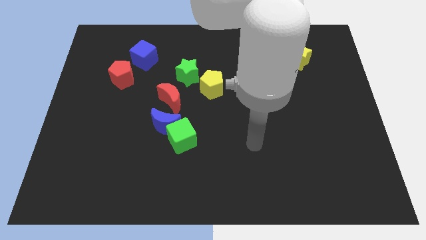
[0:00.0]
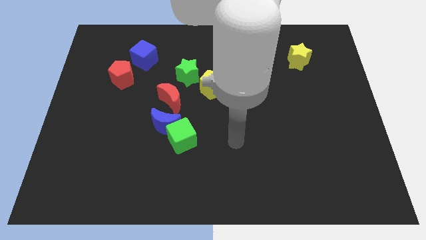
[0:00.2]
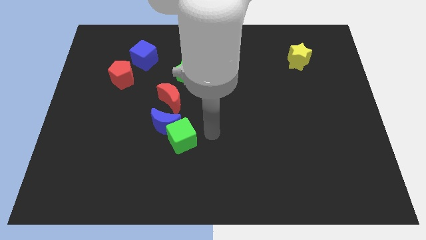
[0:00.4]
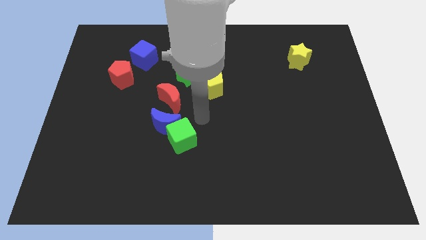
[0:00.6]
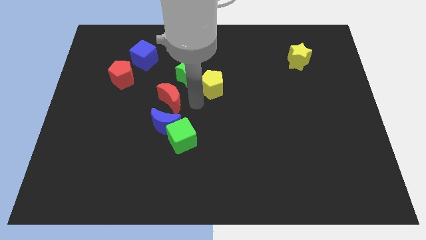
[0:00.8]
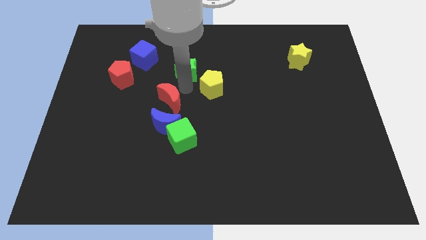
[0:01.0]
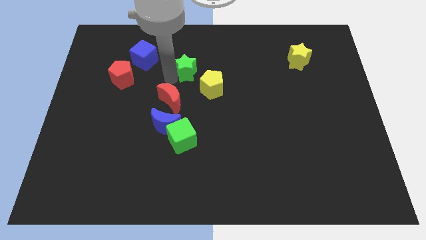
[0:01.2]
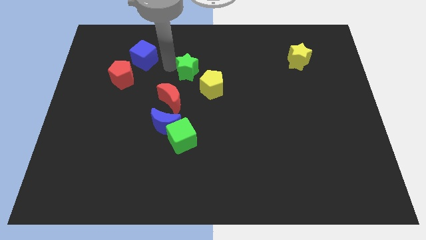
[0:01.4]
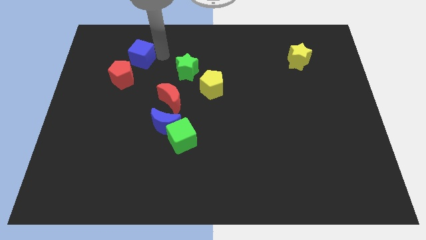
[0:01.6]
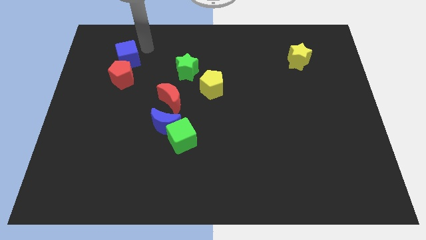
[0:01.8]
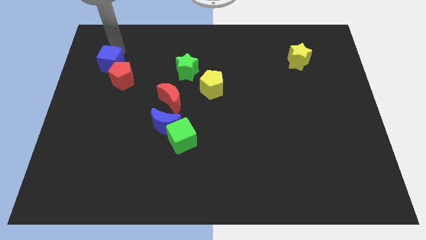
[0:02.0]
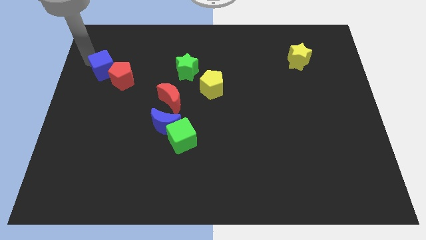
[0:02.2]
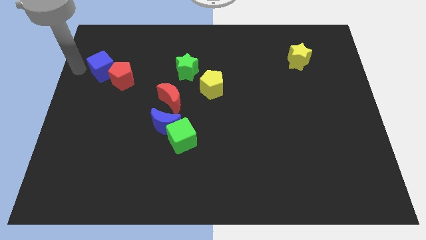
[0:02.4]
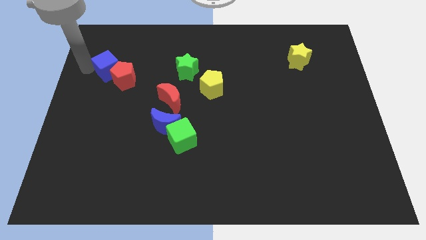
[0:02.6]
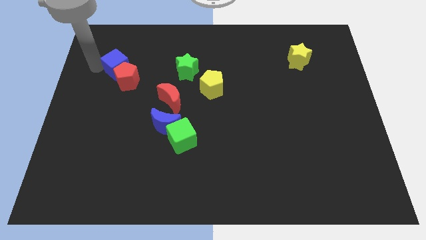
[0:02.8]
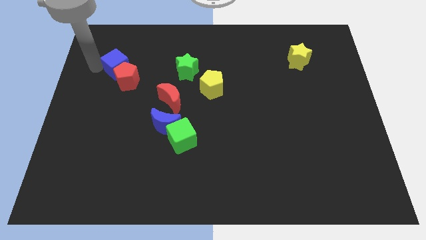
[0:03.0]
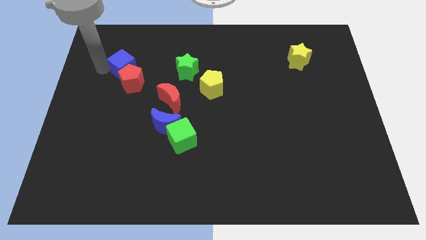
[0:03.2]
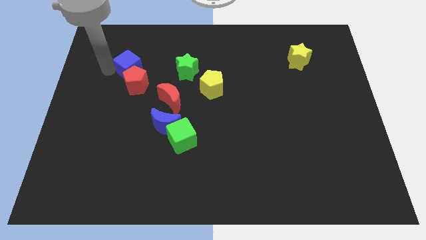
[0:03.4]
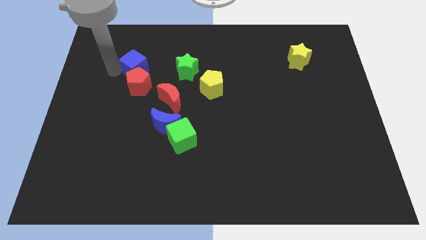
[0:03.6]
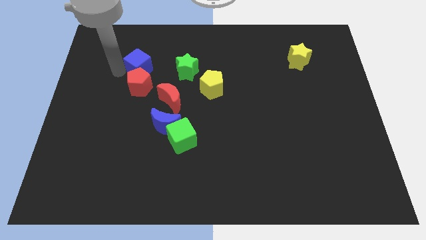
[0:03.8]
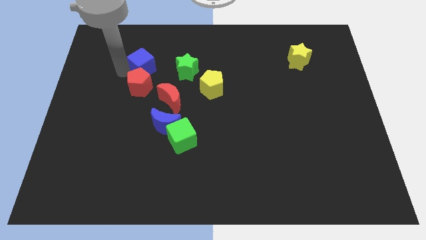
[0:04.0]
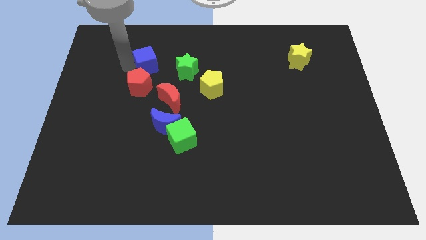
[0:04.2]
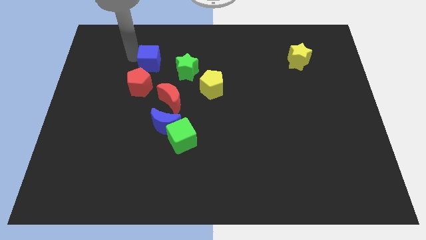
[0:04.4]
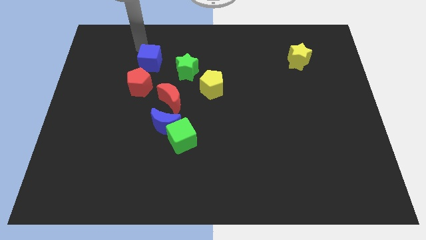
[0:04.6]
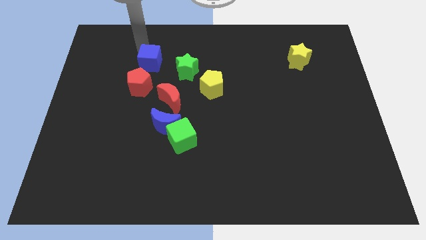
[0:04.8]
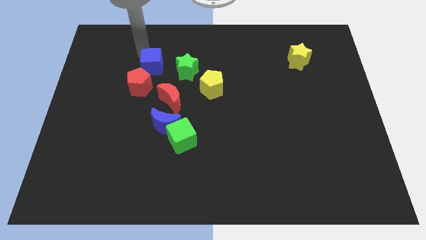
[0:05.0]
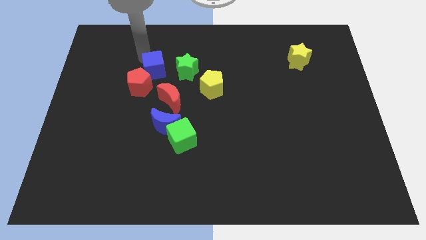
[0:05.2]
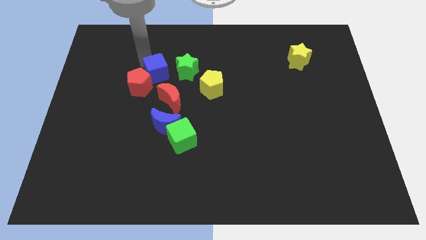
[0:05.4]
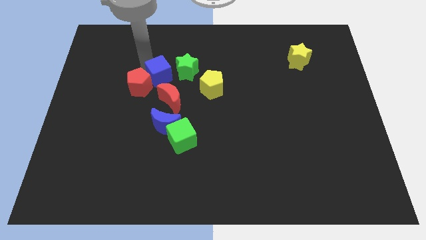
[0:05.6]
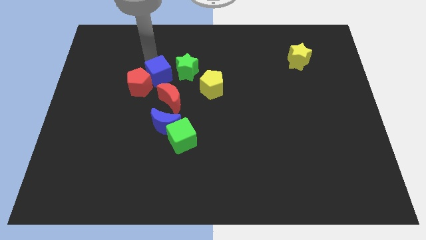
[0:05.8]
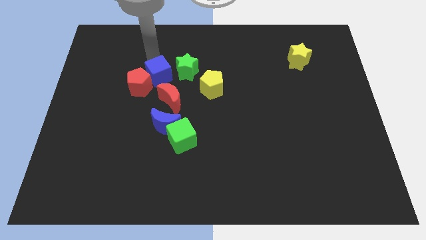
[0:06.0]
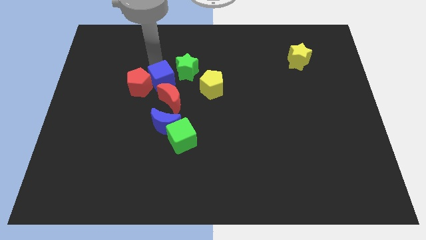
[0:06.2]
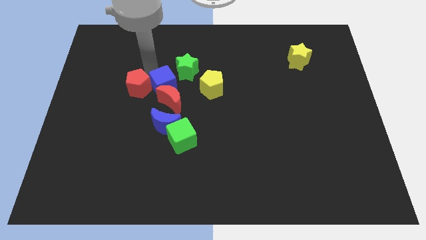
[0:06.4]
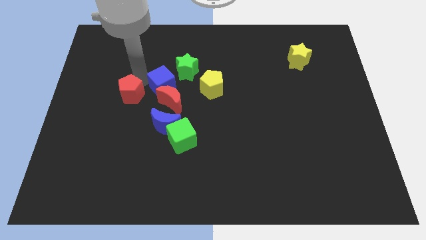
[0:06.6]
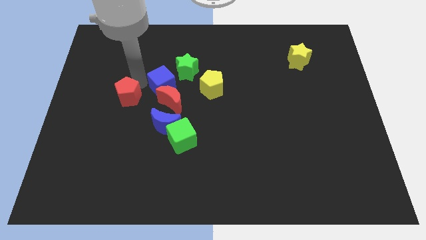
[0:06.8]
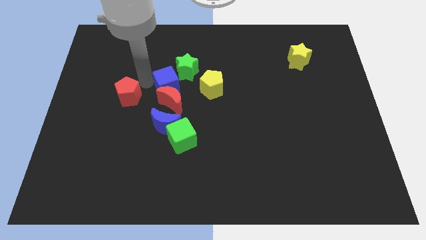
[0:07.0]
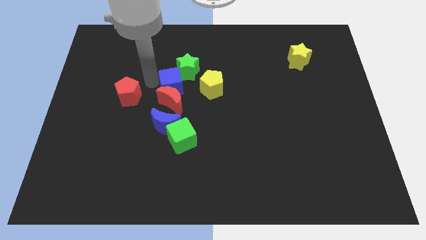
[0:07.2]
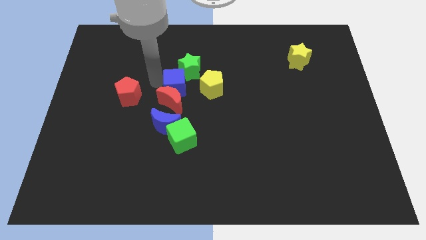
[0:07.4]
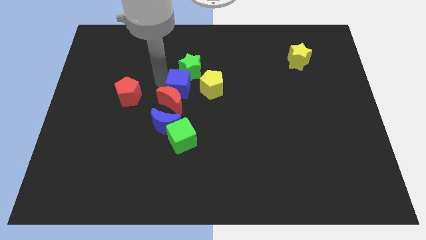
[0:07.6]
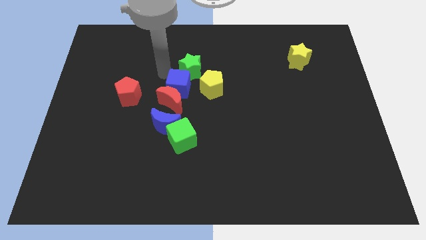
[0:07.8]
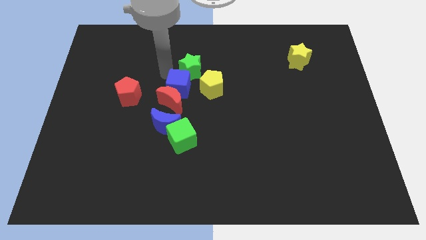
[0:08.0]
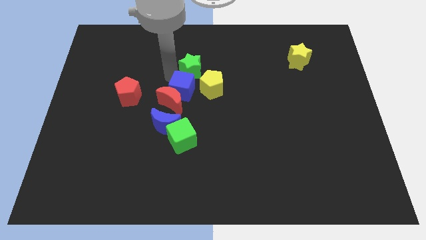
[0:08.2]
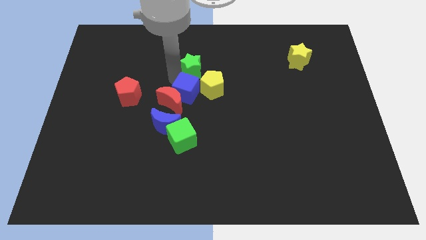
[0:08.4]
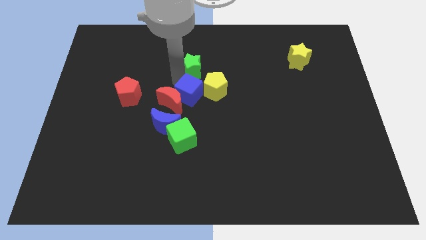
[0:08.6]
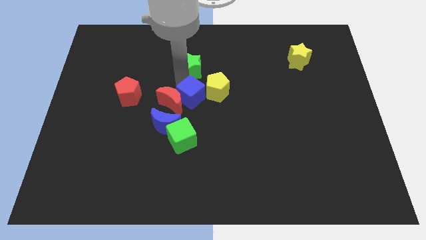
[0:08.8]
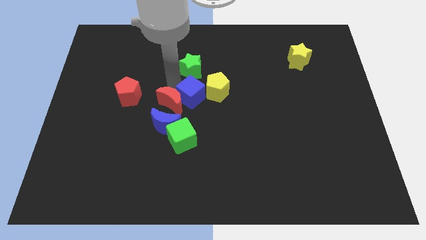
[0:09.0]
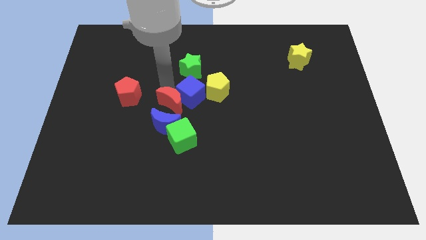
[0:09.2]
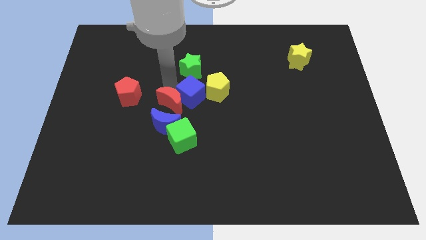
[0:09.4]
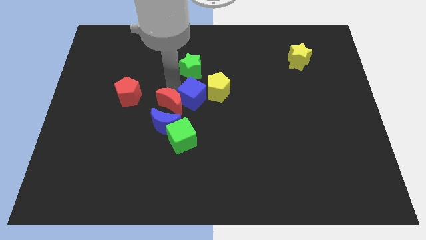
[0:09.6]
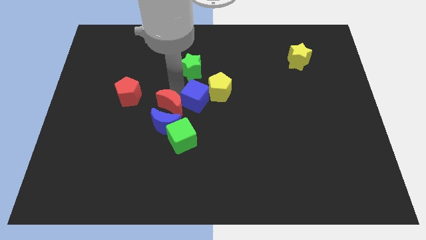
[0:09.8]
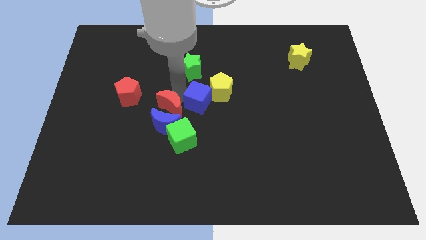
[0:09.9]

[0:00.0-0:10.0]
move the blue cube downwards and right diagonally

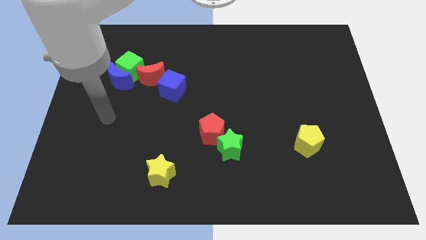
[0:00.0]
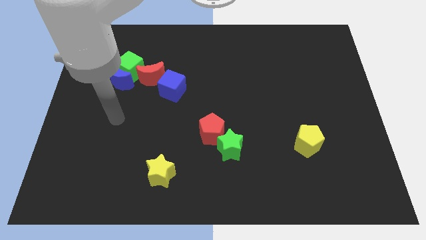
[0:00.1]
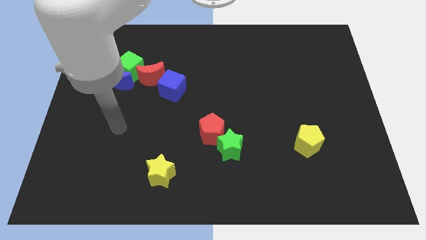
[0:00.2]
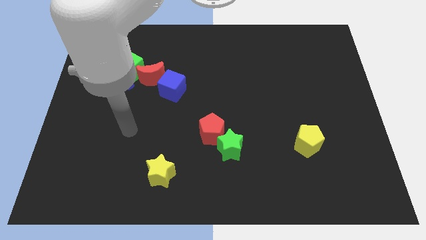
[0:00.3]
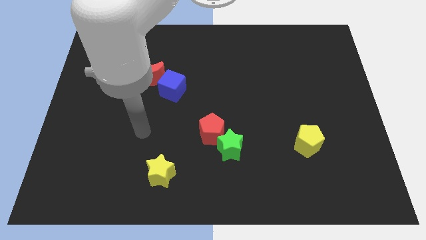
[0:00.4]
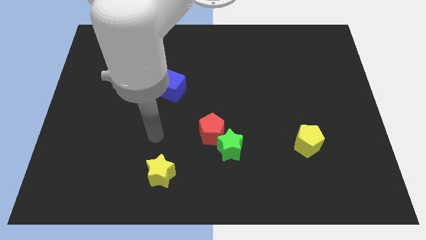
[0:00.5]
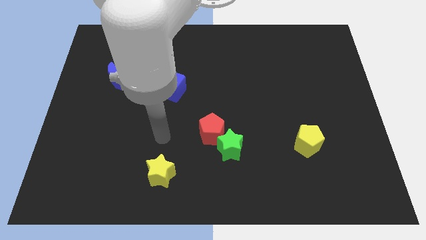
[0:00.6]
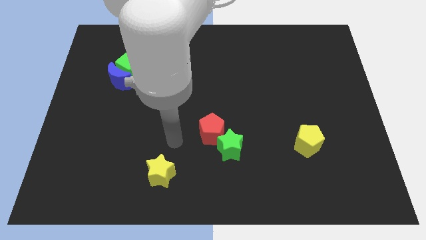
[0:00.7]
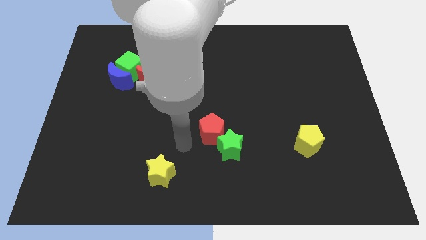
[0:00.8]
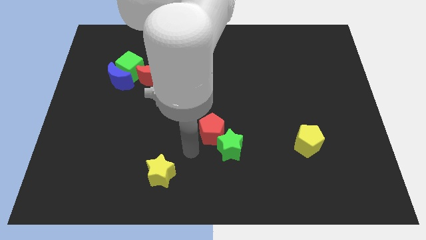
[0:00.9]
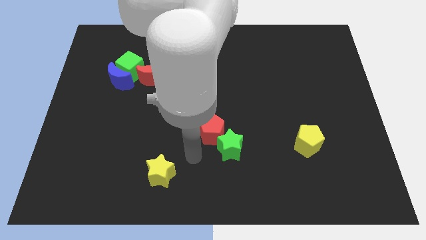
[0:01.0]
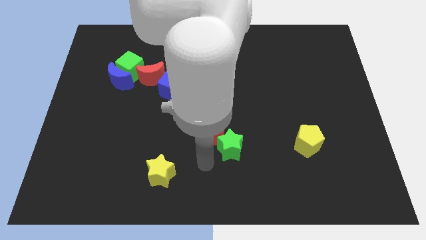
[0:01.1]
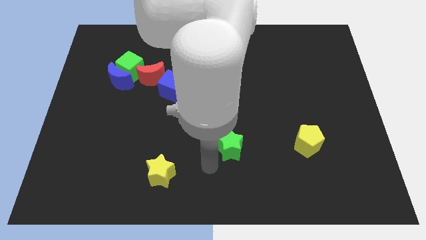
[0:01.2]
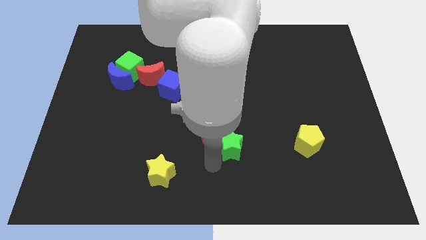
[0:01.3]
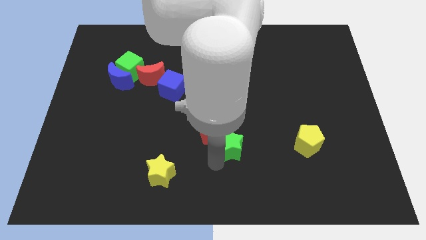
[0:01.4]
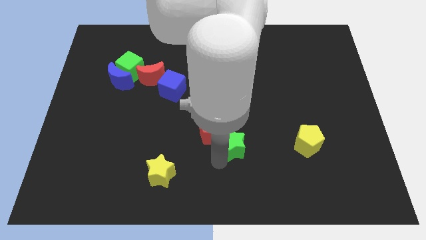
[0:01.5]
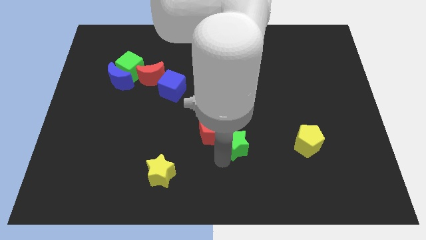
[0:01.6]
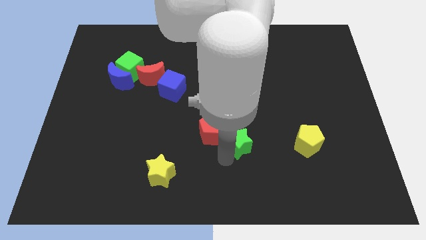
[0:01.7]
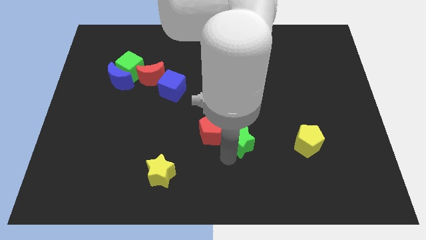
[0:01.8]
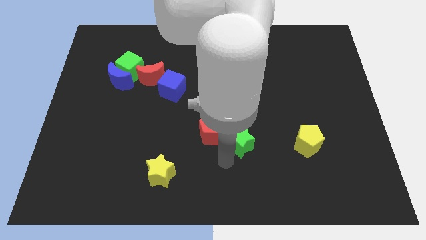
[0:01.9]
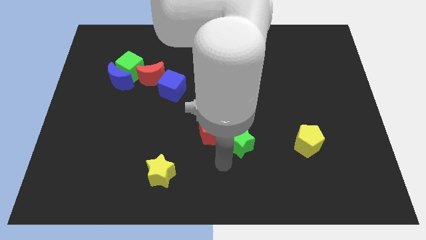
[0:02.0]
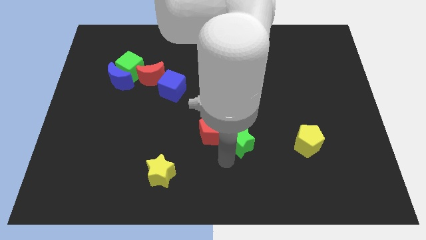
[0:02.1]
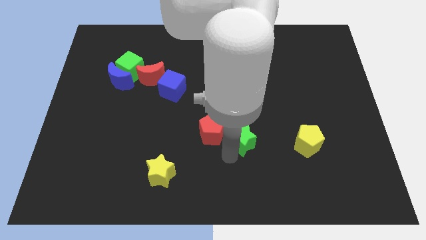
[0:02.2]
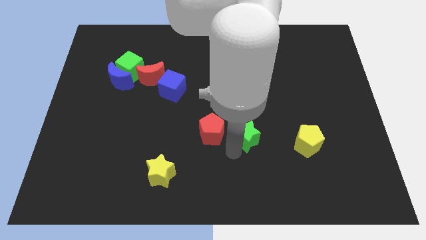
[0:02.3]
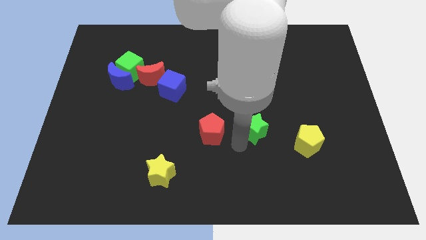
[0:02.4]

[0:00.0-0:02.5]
push the green star a bit up and right diagonally
